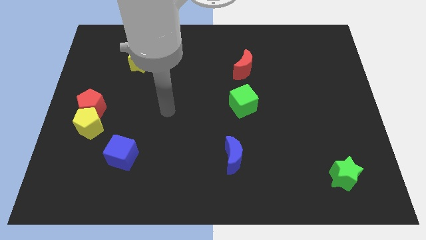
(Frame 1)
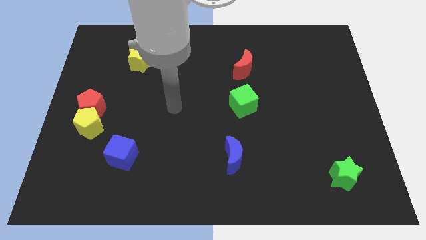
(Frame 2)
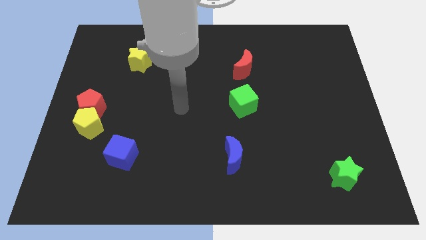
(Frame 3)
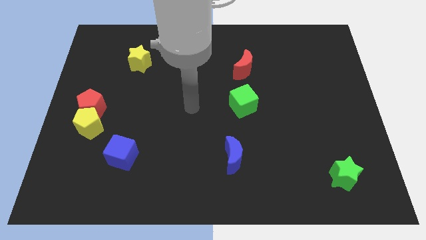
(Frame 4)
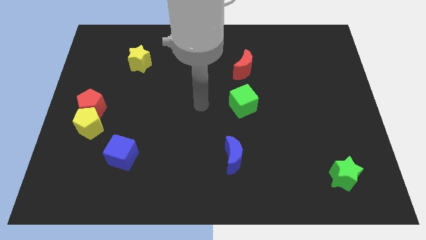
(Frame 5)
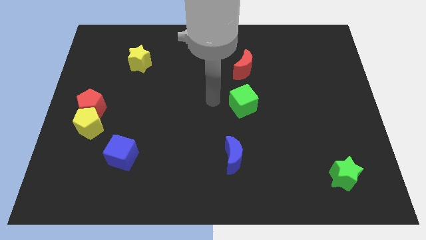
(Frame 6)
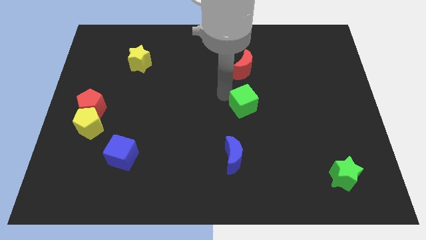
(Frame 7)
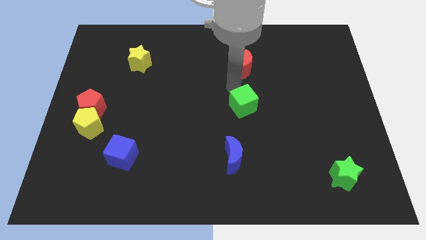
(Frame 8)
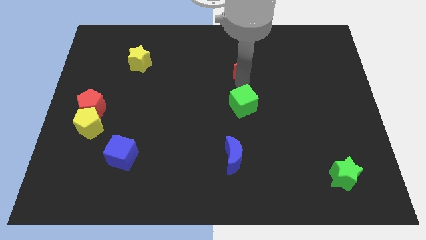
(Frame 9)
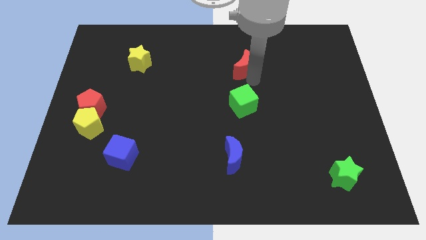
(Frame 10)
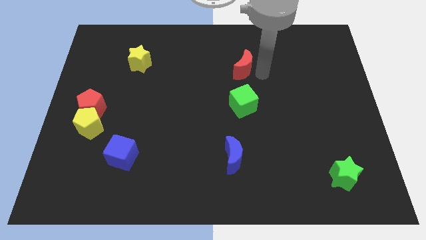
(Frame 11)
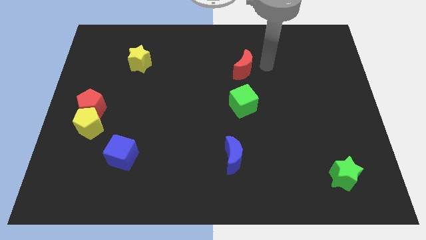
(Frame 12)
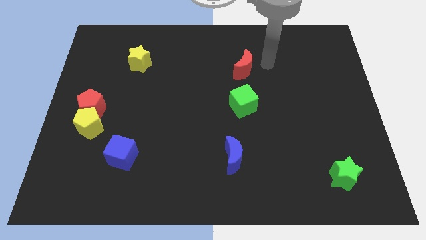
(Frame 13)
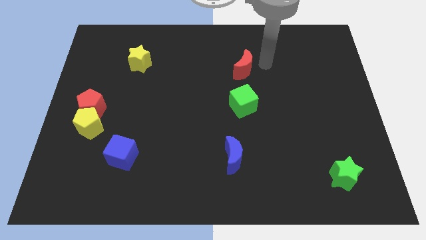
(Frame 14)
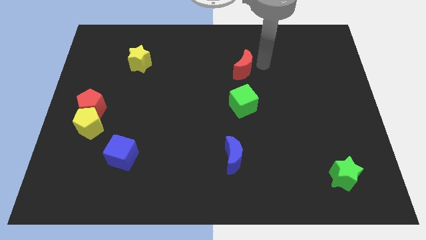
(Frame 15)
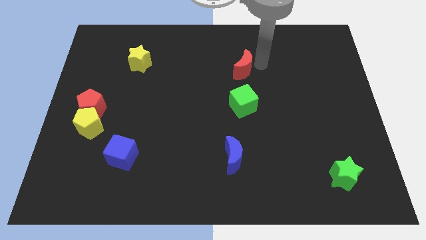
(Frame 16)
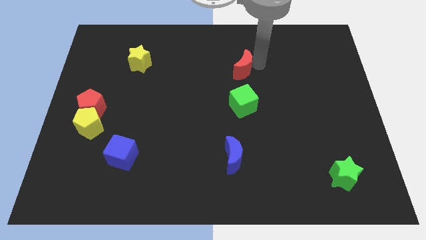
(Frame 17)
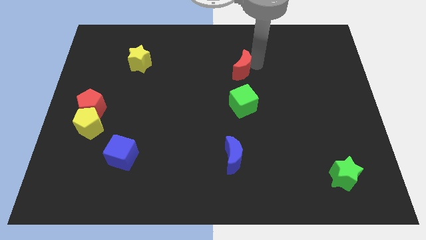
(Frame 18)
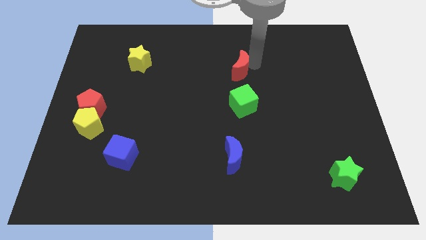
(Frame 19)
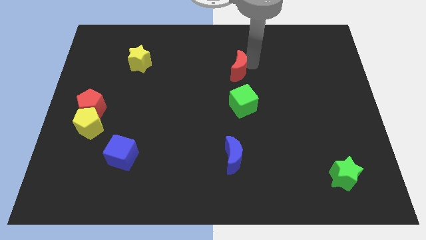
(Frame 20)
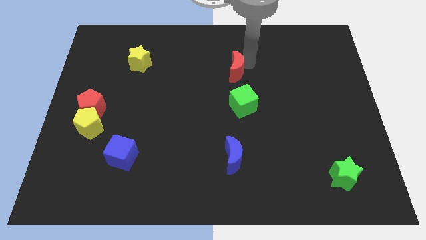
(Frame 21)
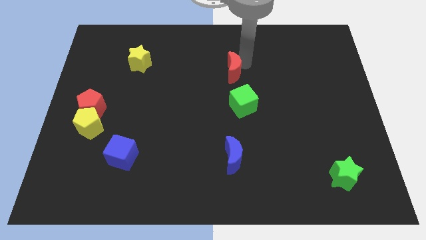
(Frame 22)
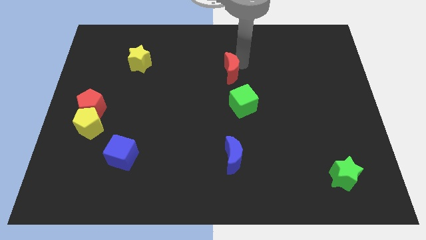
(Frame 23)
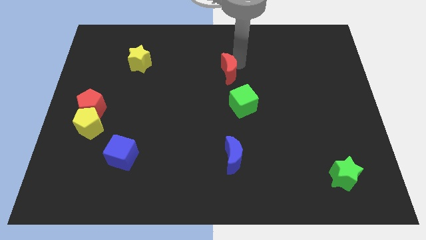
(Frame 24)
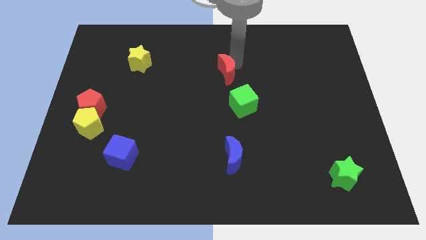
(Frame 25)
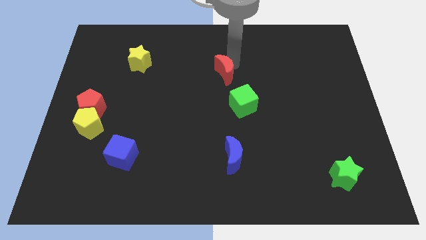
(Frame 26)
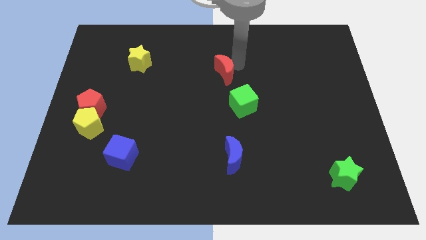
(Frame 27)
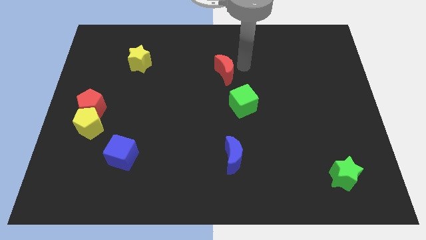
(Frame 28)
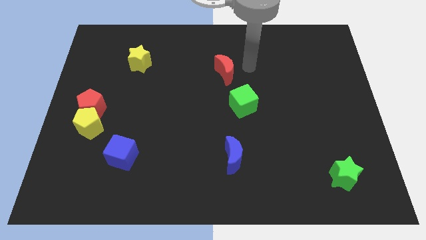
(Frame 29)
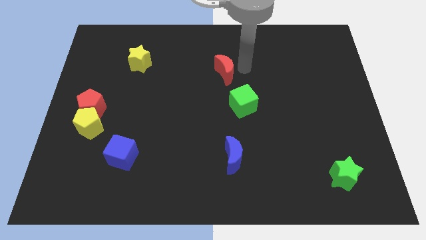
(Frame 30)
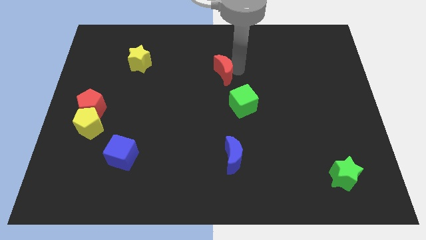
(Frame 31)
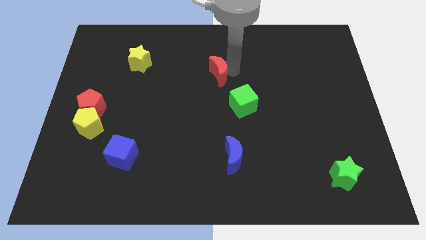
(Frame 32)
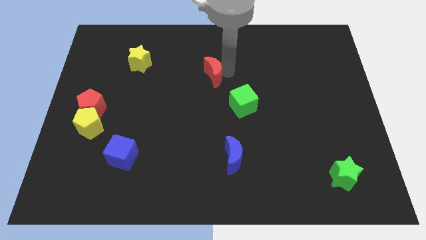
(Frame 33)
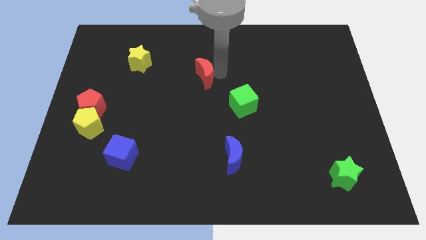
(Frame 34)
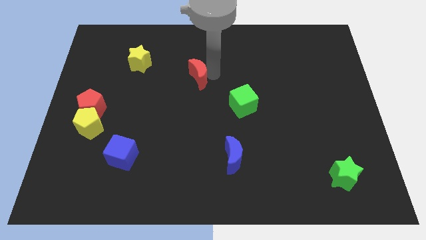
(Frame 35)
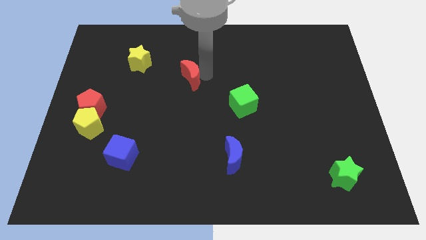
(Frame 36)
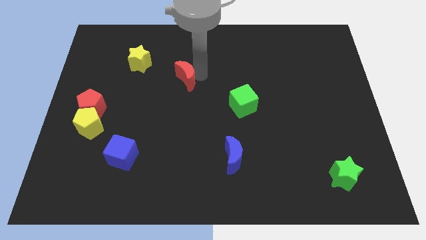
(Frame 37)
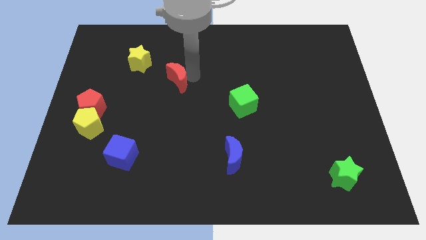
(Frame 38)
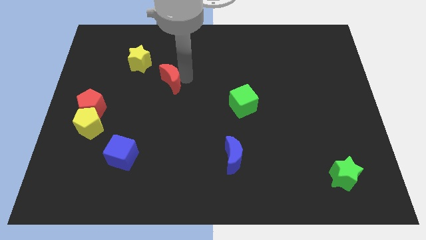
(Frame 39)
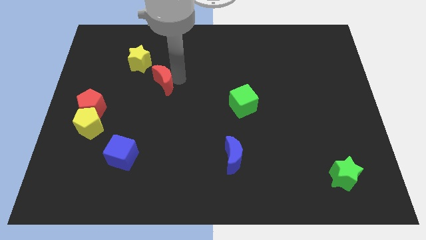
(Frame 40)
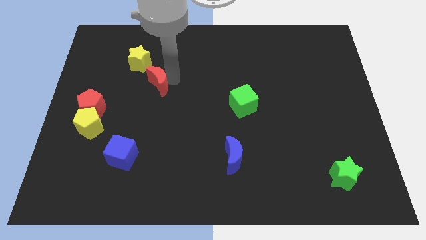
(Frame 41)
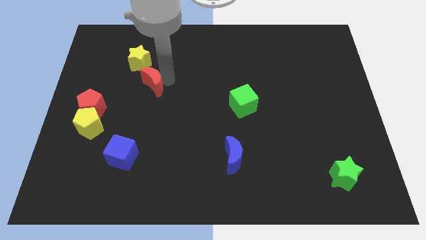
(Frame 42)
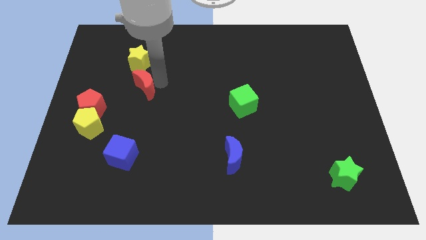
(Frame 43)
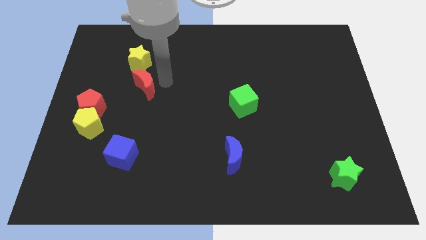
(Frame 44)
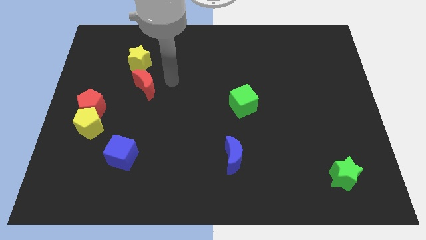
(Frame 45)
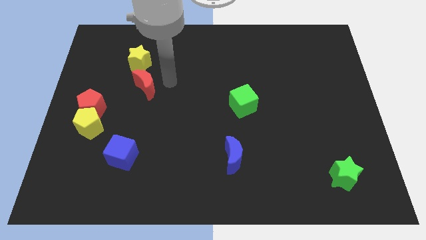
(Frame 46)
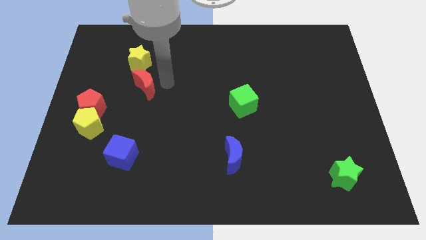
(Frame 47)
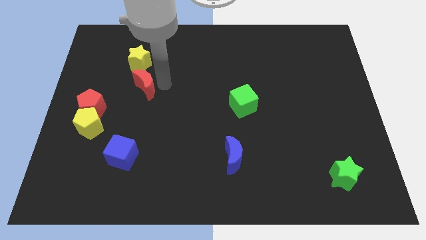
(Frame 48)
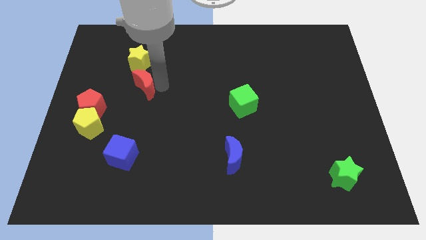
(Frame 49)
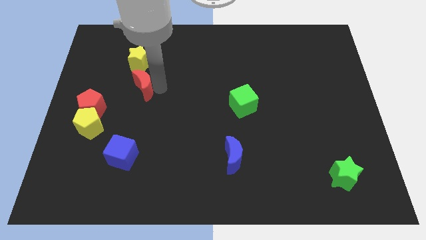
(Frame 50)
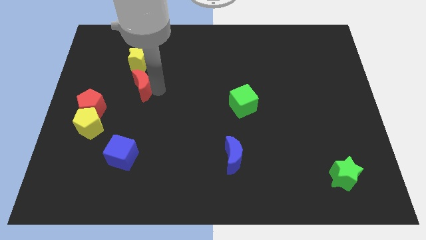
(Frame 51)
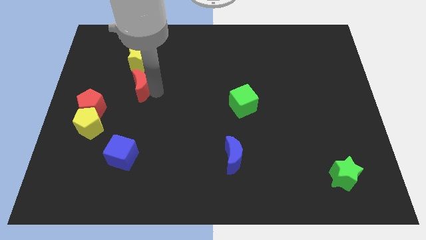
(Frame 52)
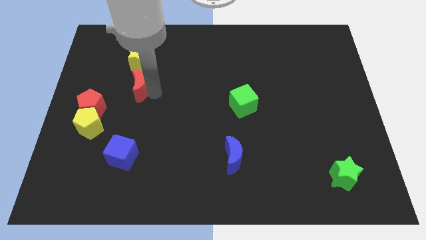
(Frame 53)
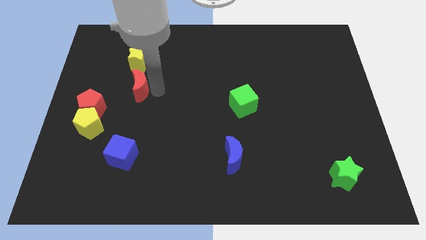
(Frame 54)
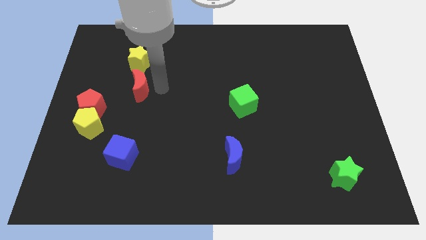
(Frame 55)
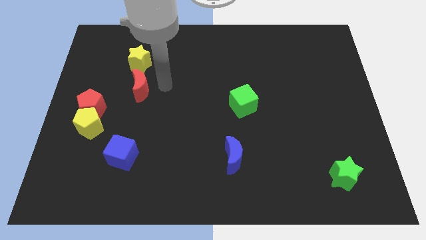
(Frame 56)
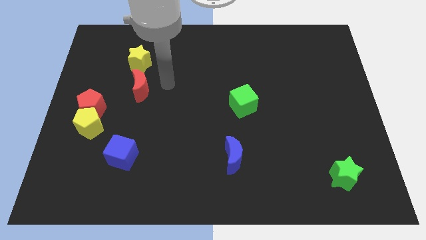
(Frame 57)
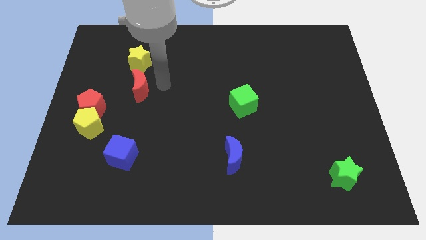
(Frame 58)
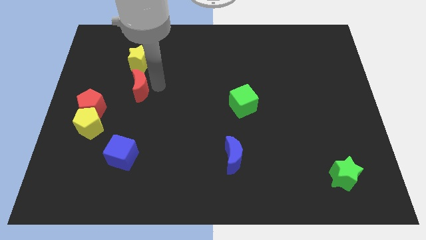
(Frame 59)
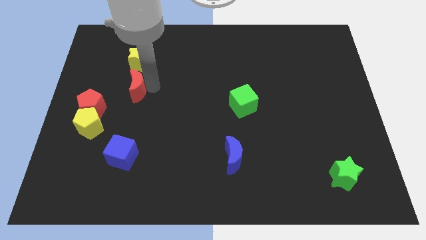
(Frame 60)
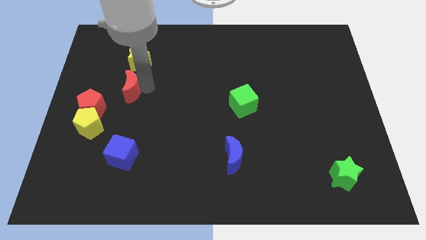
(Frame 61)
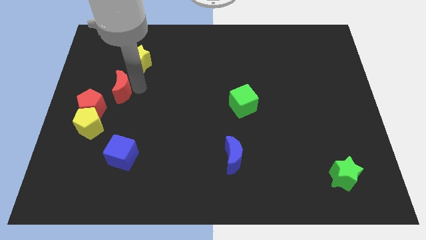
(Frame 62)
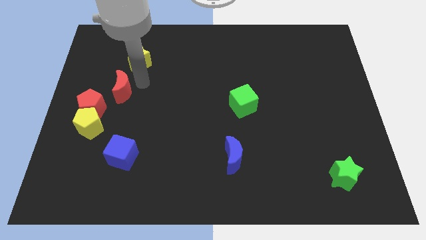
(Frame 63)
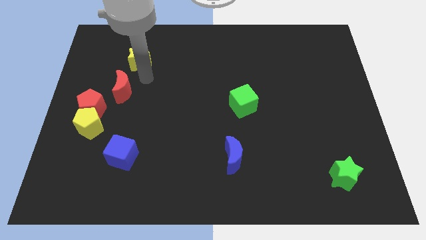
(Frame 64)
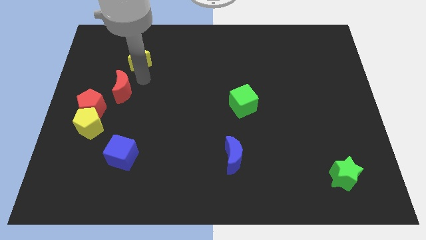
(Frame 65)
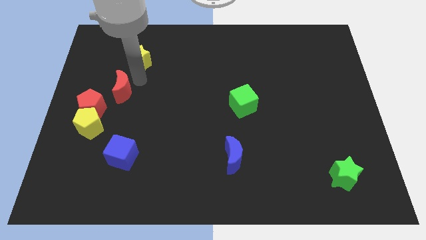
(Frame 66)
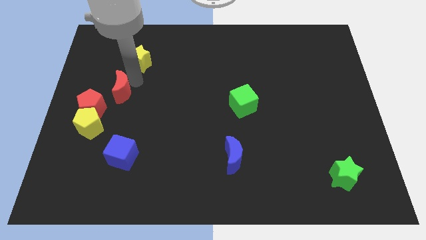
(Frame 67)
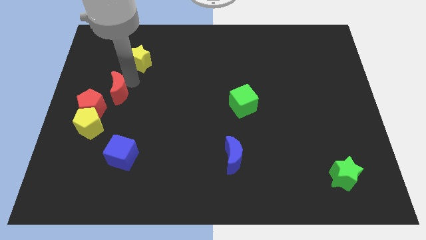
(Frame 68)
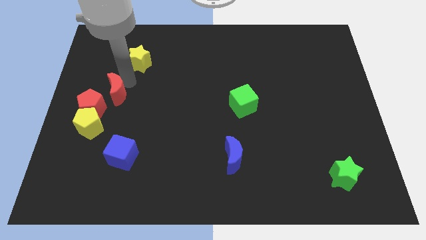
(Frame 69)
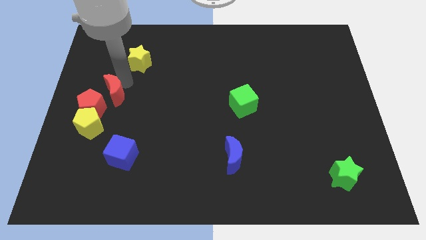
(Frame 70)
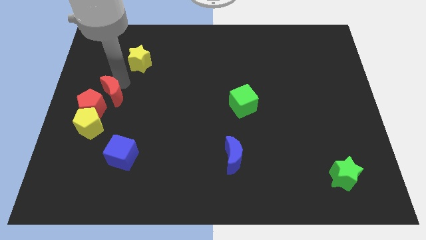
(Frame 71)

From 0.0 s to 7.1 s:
push the red moon close to the red pentagon
